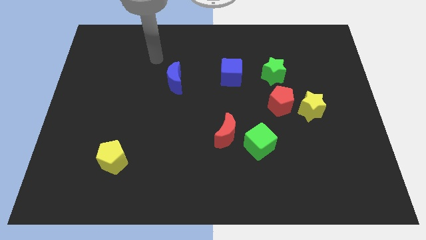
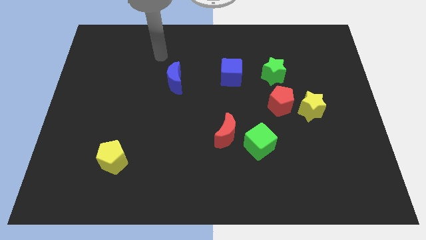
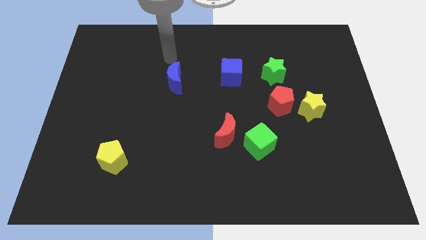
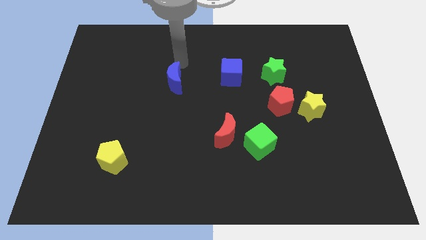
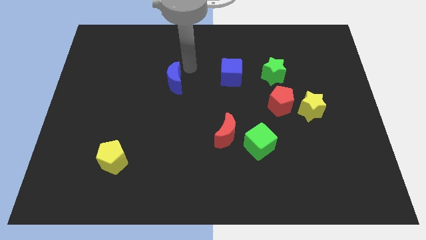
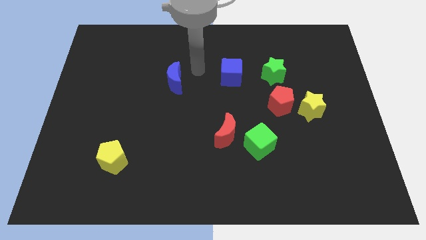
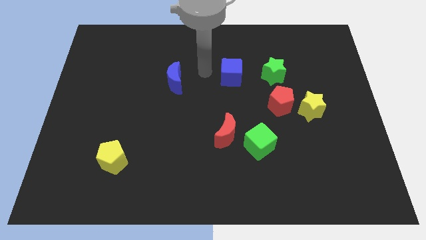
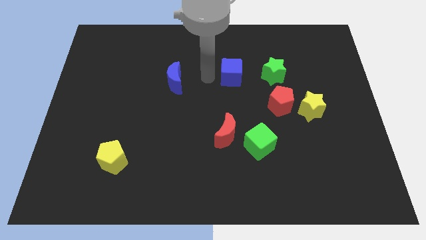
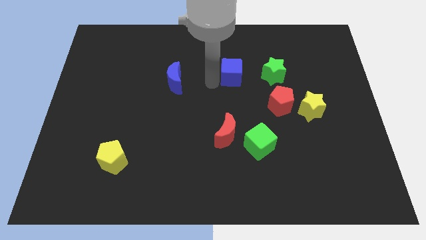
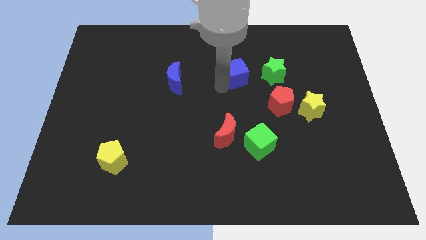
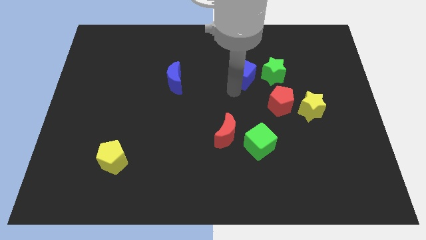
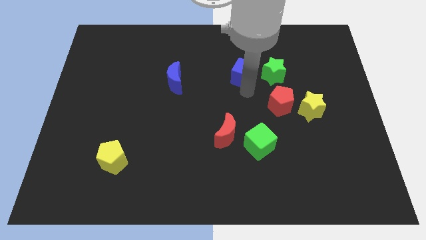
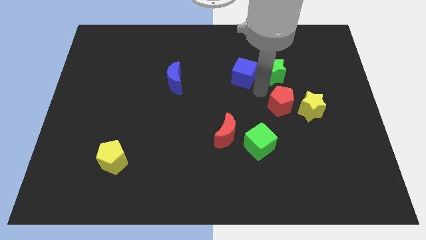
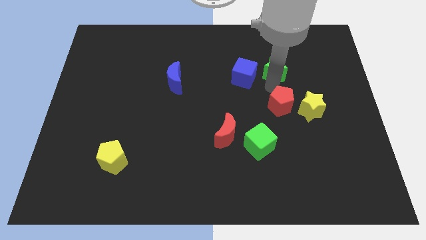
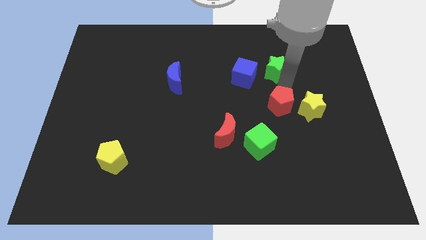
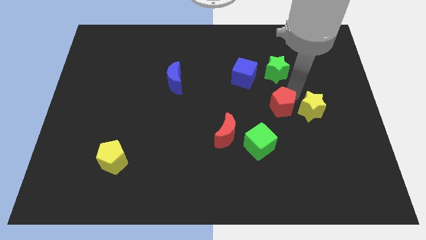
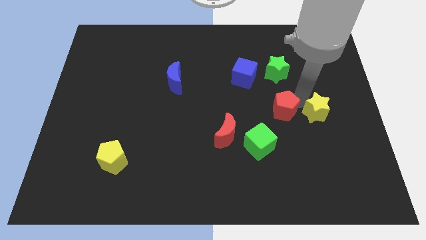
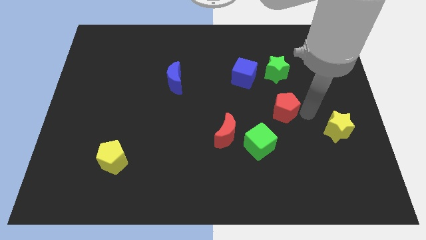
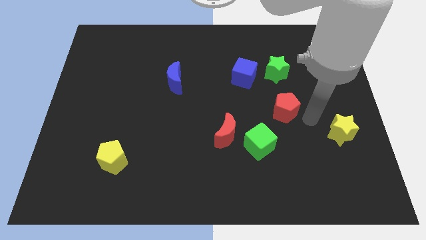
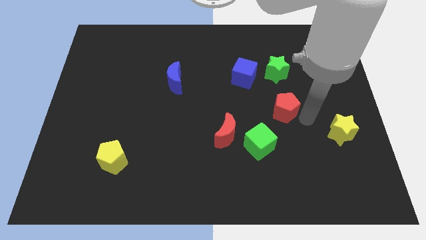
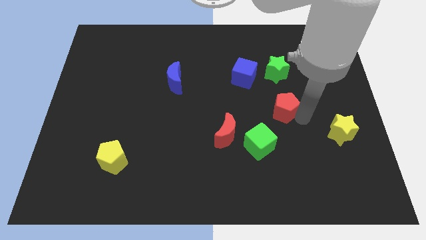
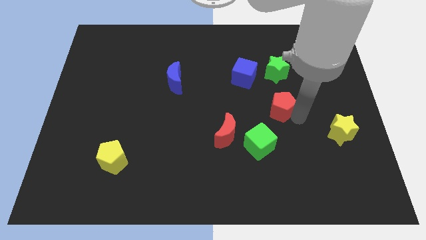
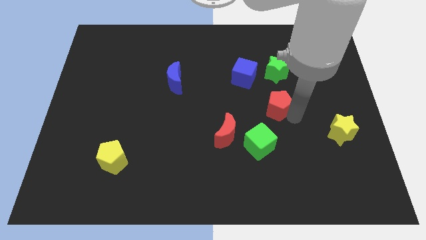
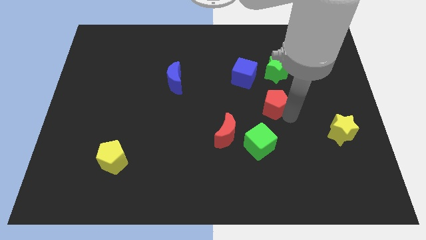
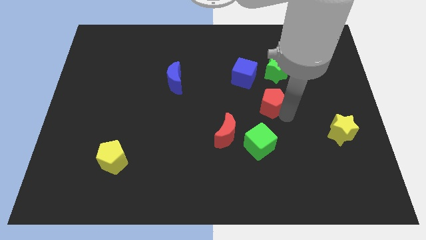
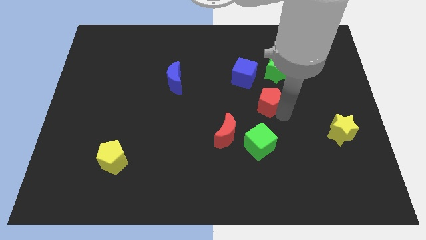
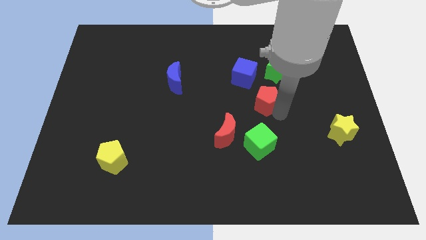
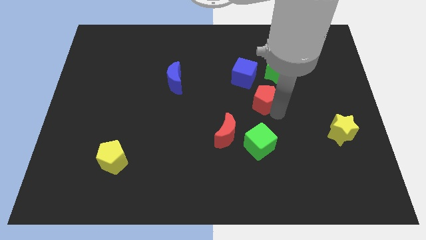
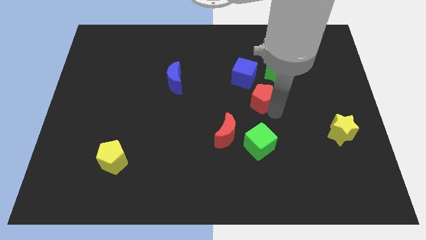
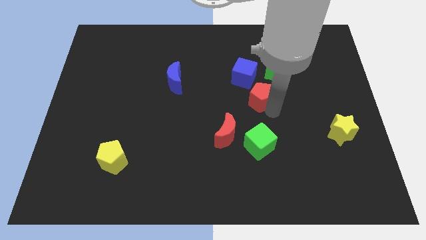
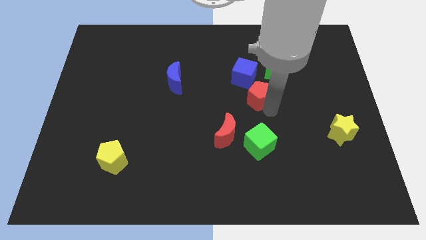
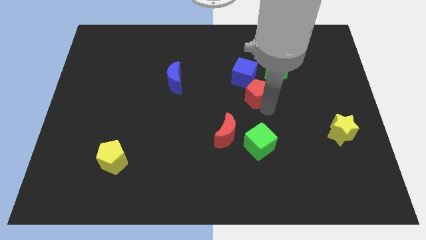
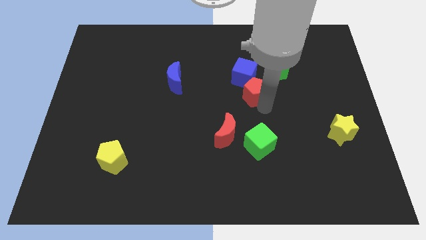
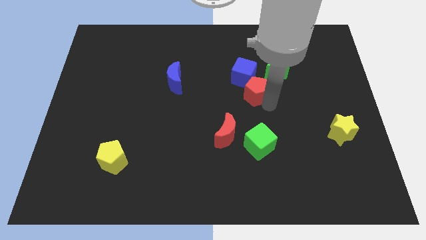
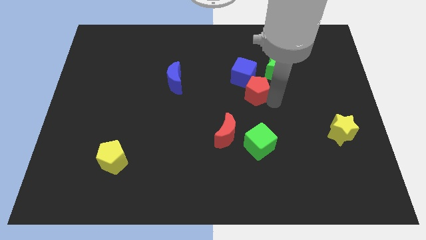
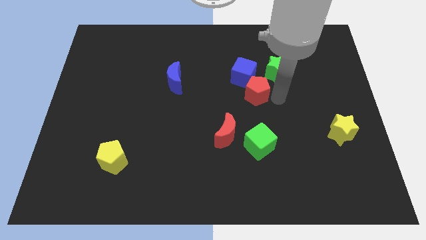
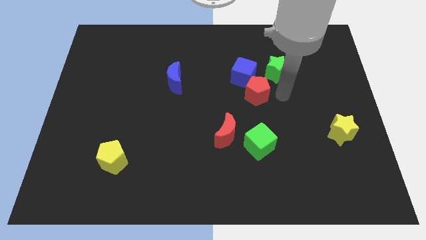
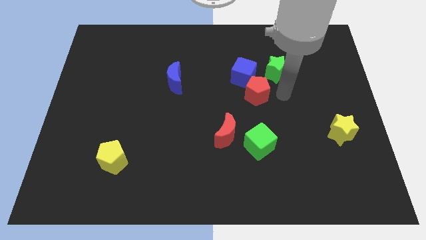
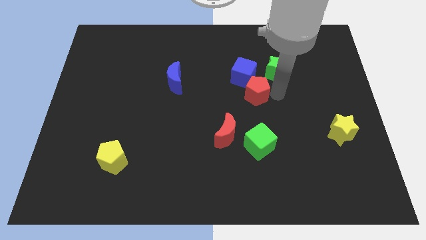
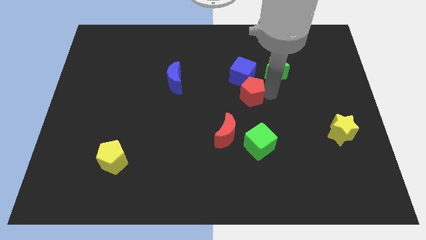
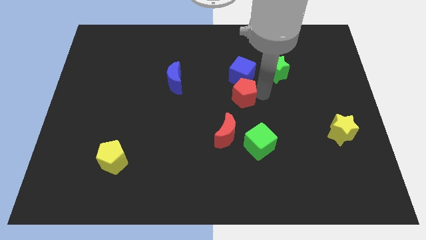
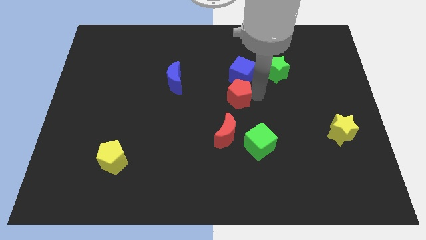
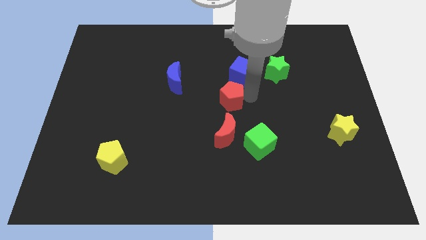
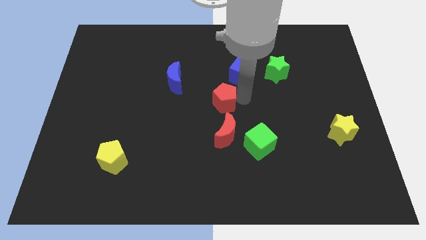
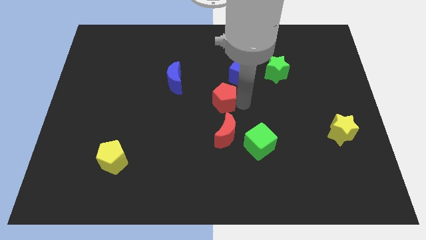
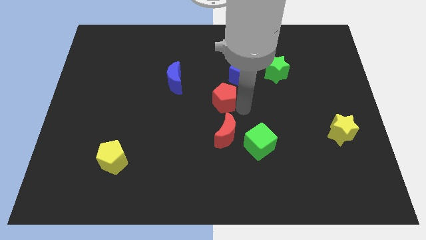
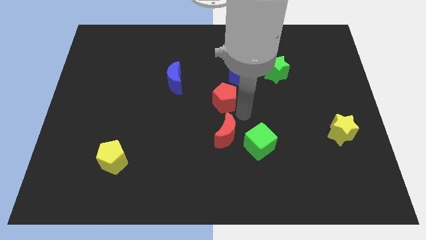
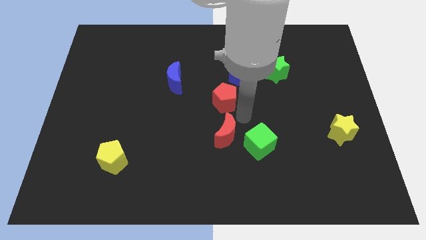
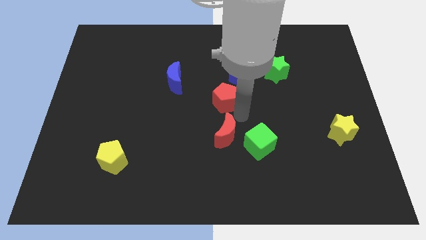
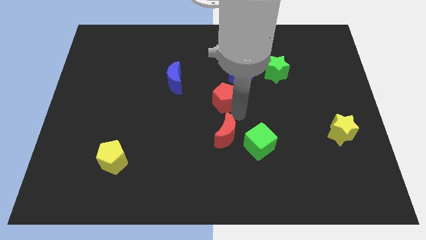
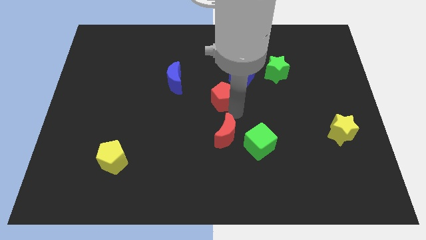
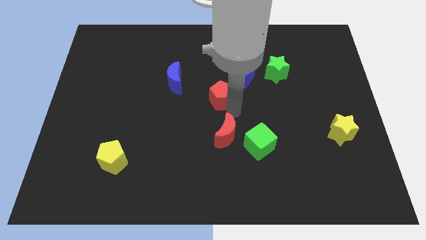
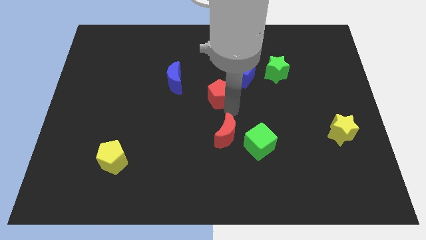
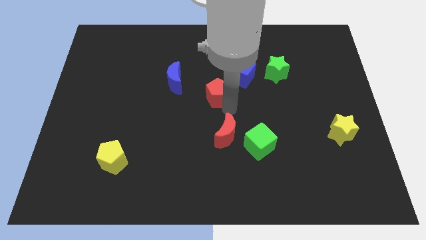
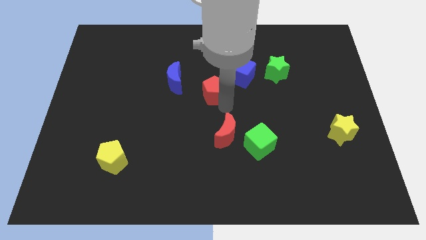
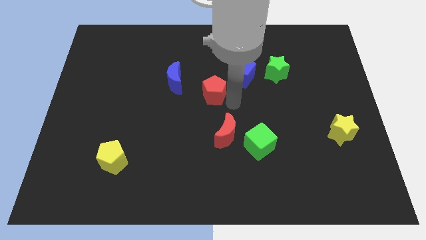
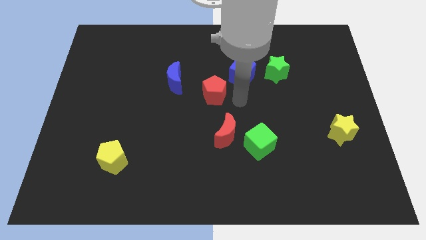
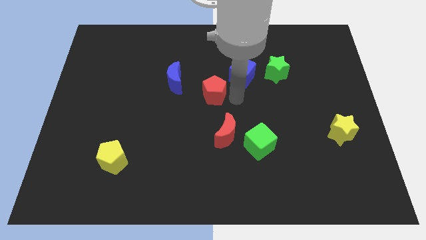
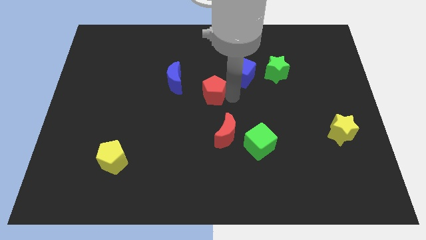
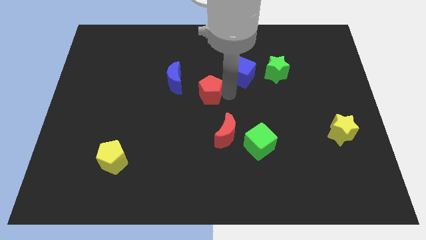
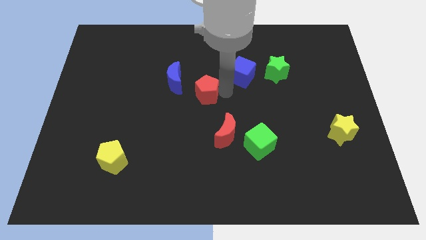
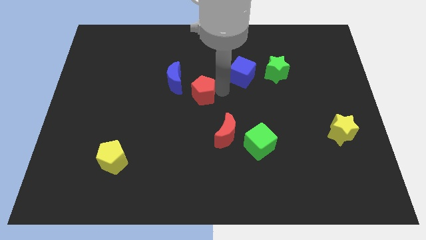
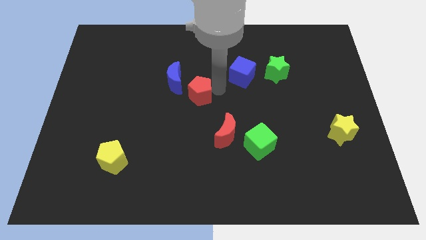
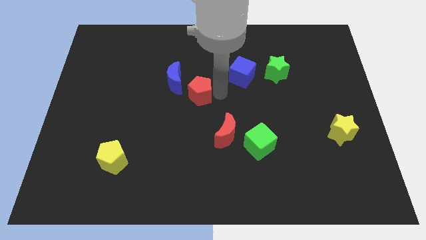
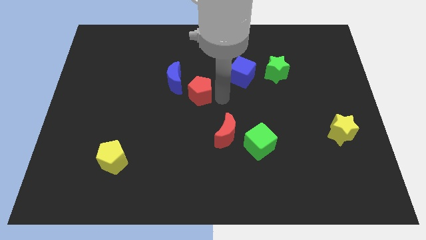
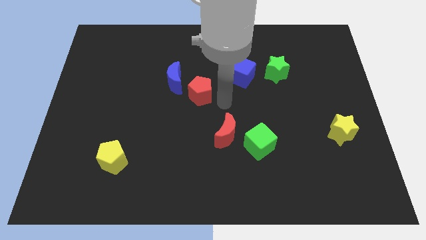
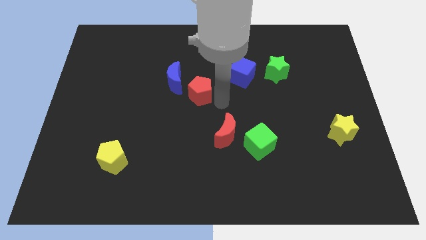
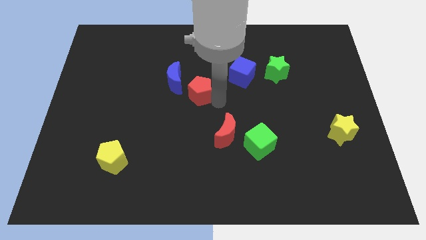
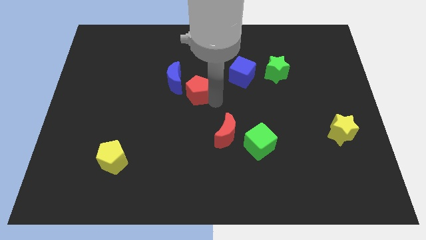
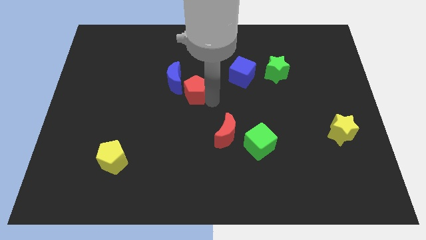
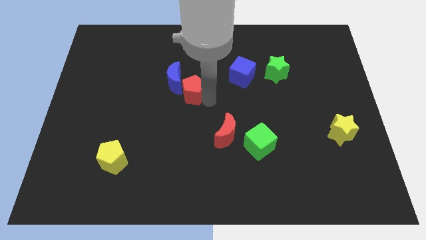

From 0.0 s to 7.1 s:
slide the red pentagon next to the blue moon

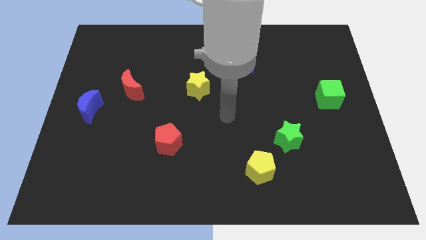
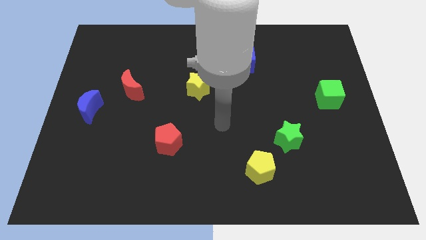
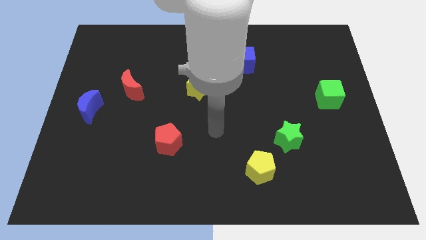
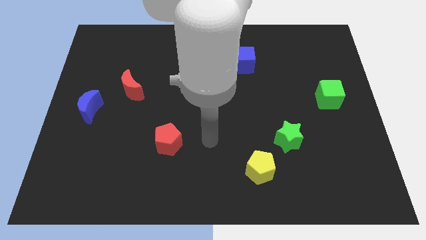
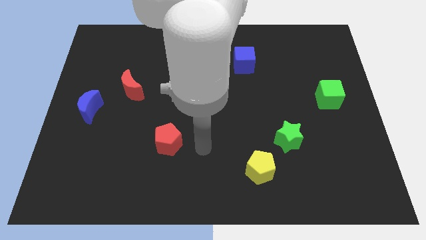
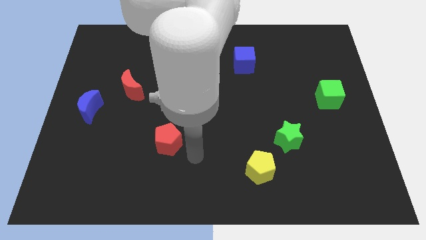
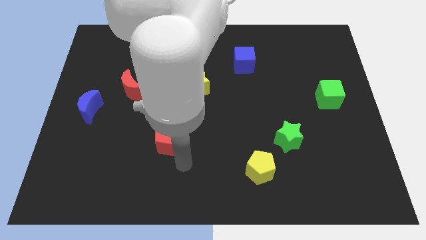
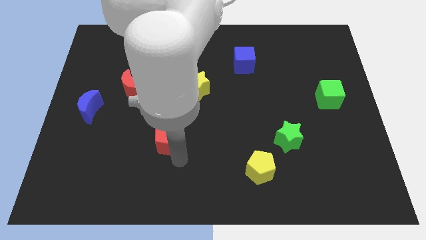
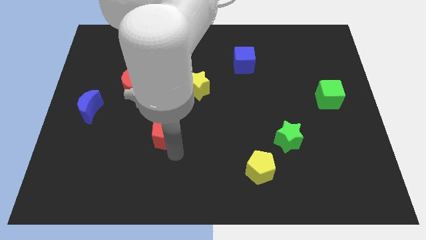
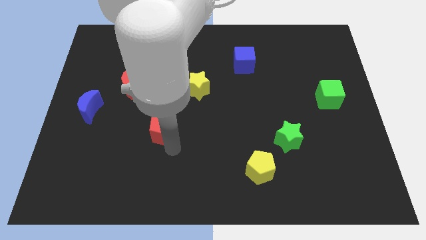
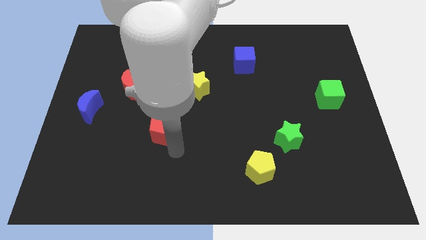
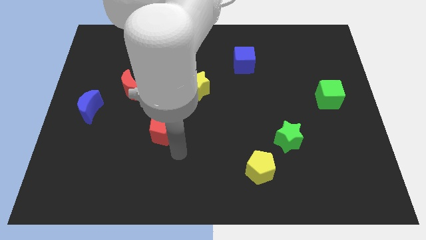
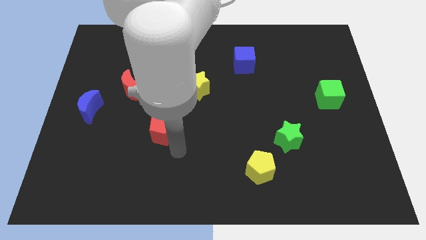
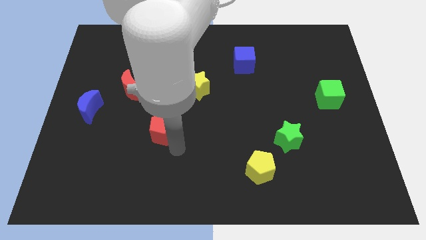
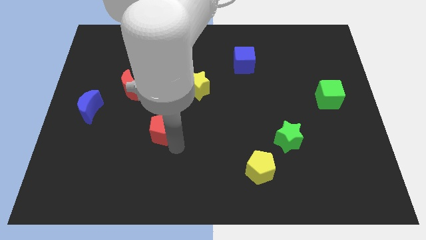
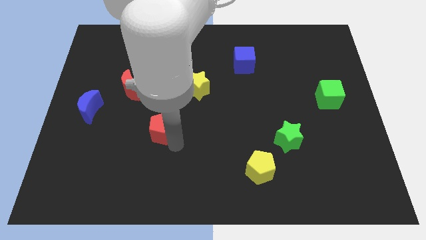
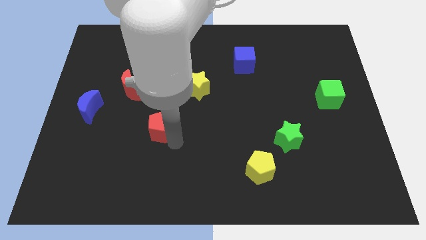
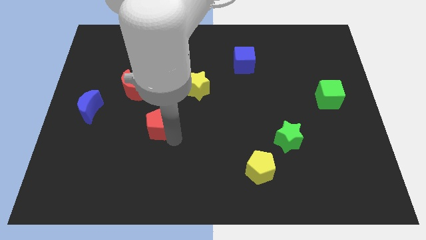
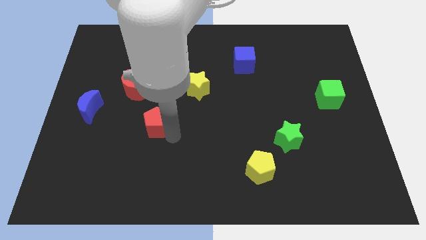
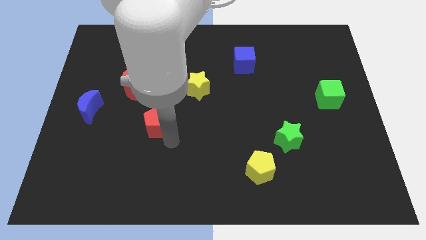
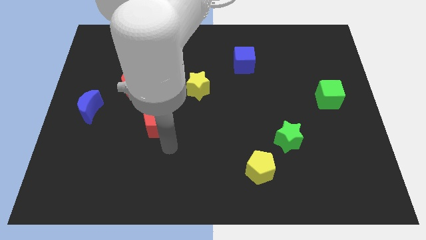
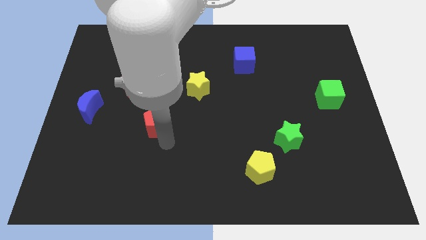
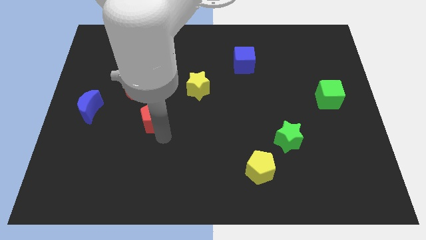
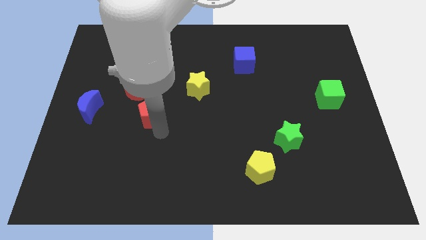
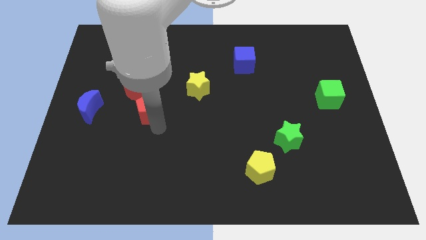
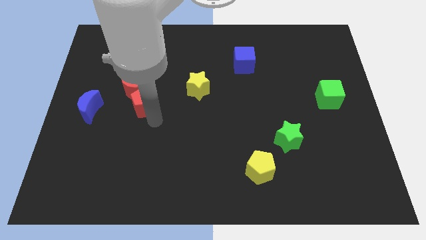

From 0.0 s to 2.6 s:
put the red pentagon towards the red moon
